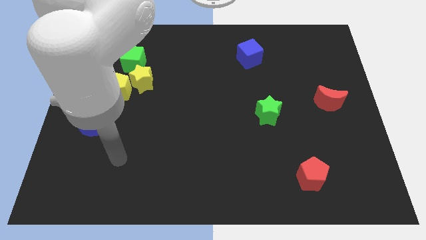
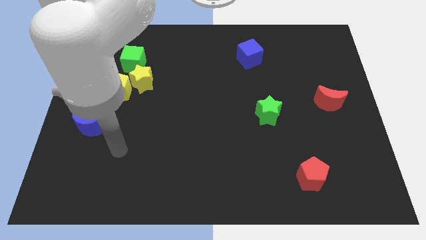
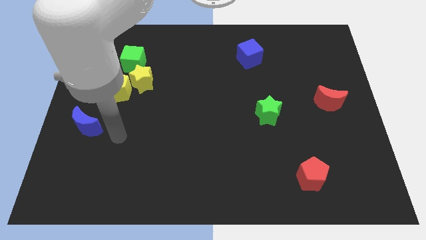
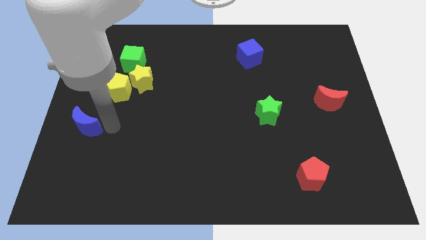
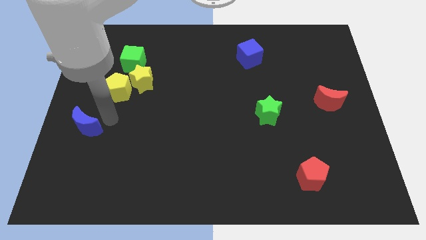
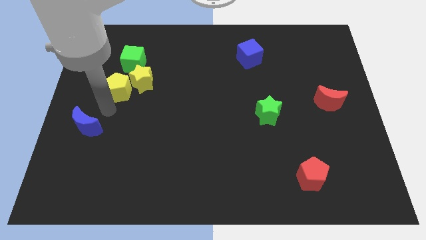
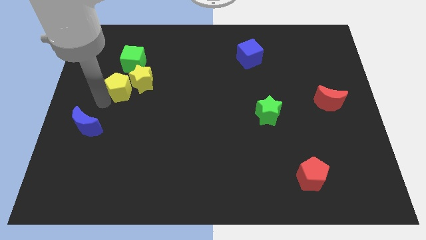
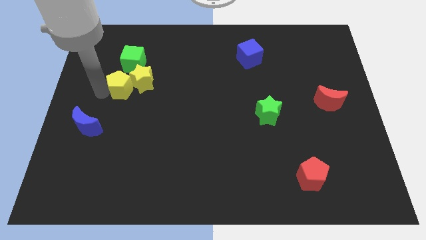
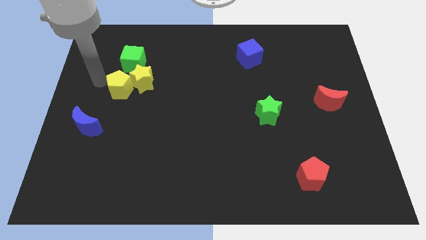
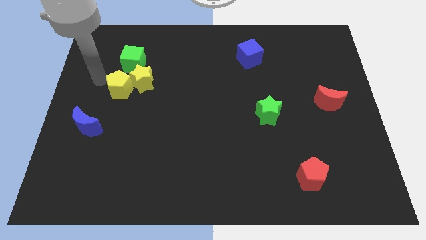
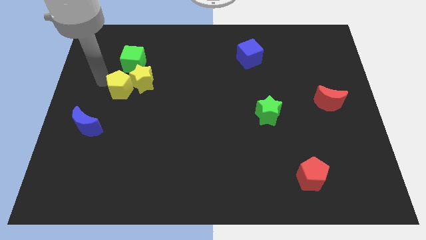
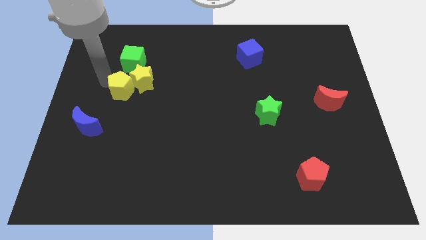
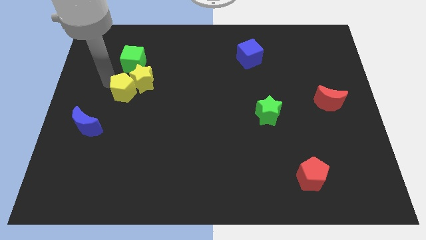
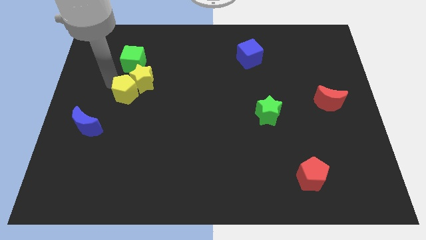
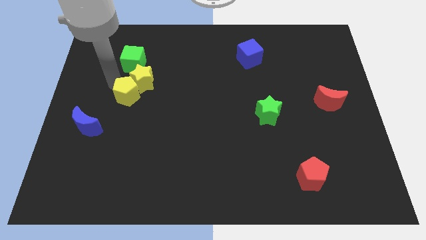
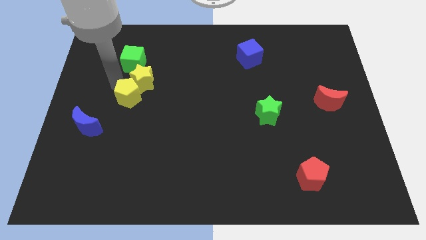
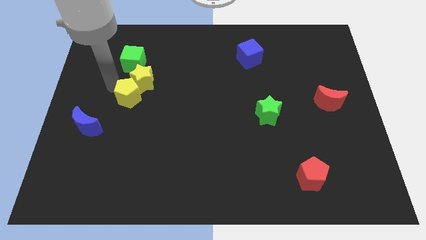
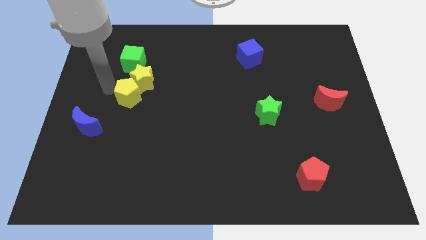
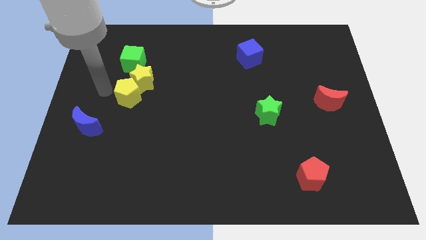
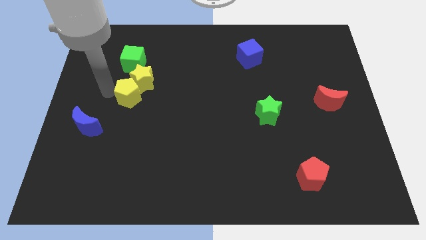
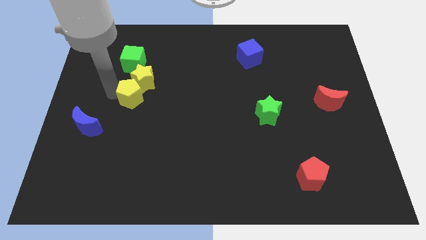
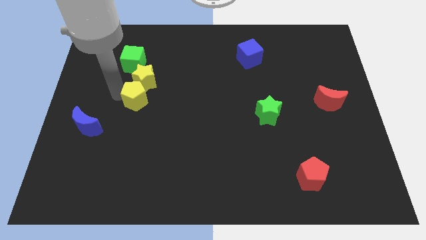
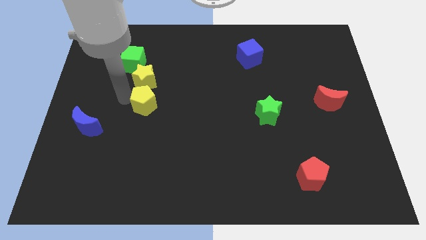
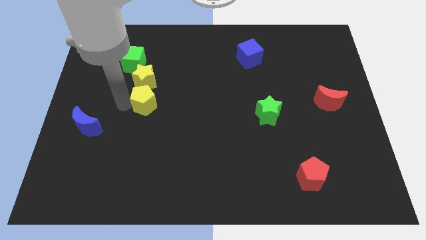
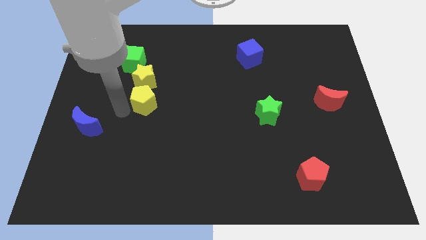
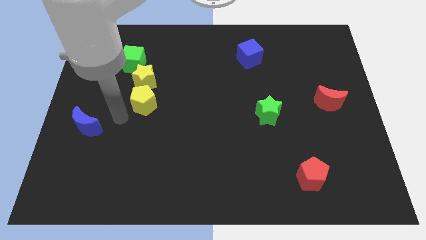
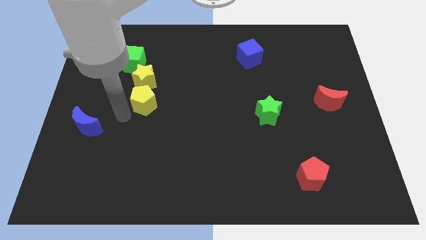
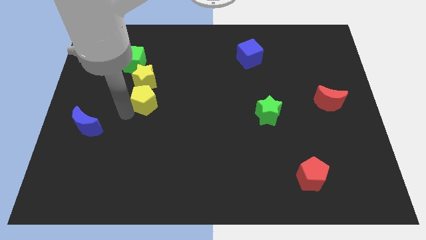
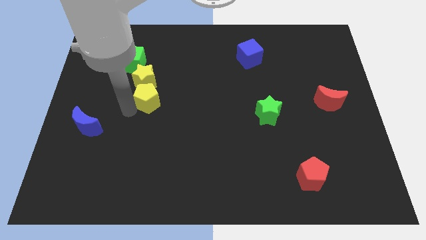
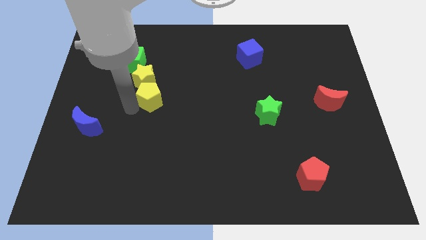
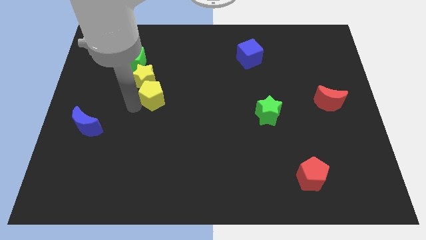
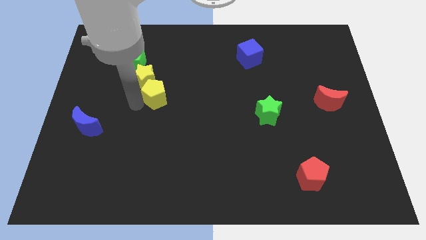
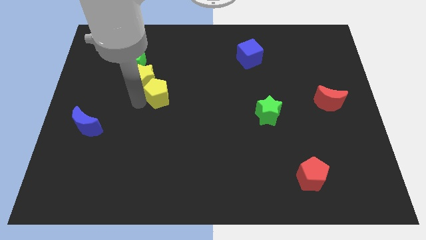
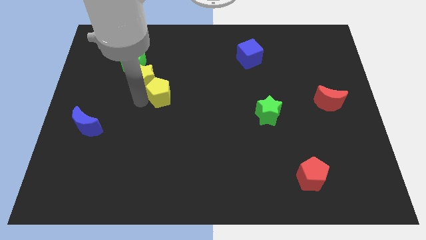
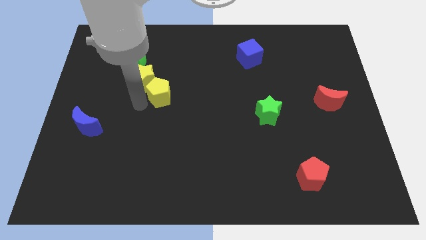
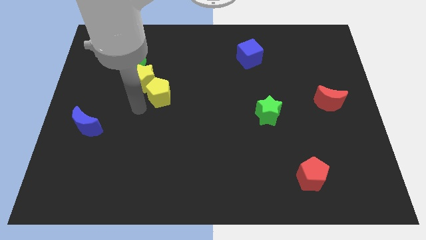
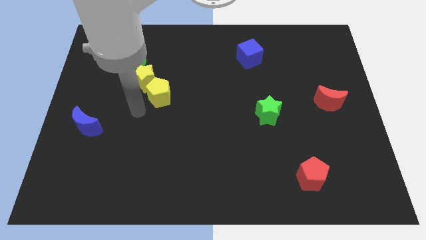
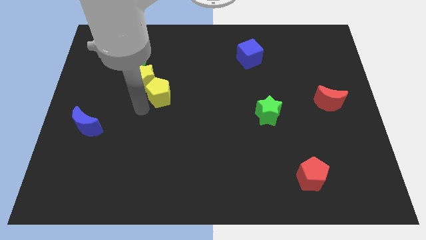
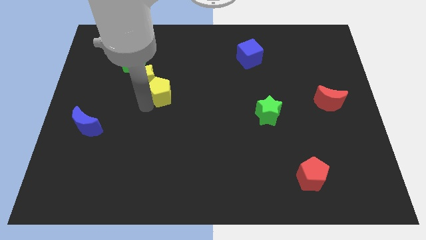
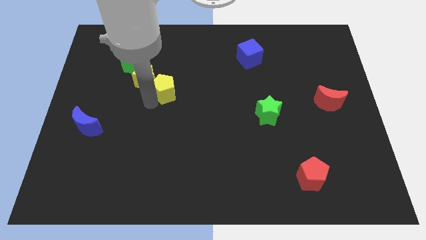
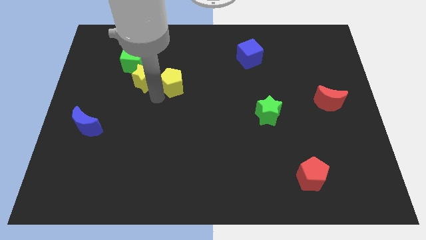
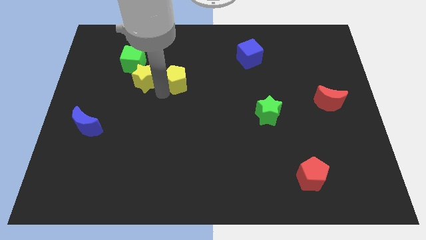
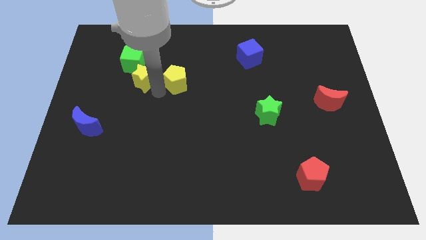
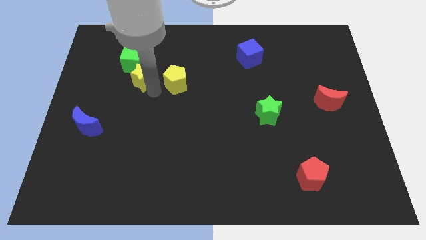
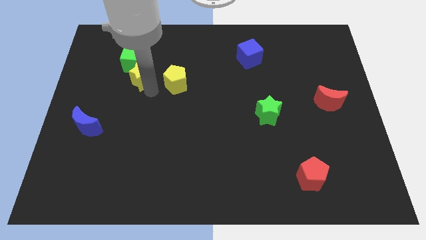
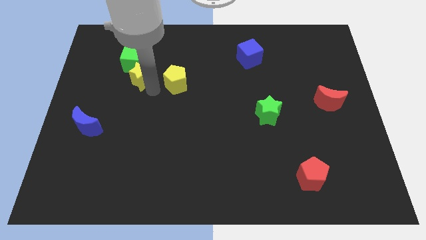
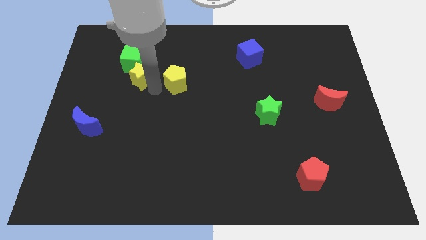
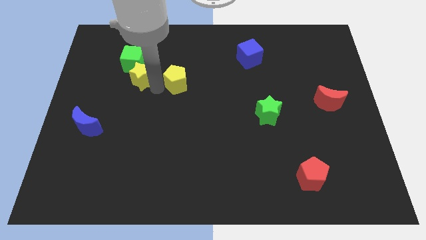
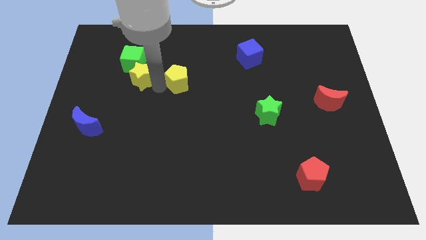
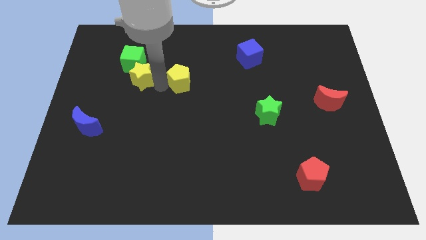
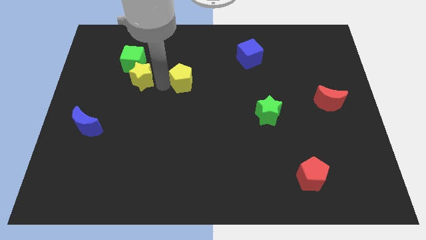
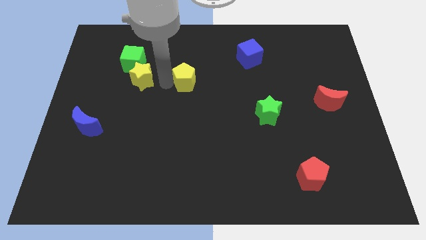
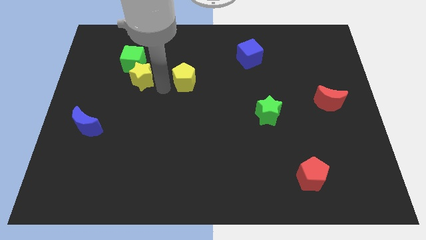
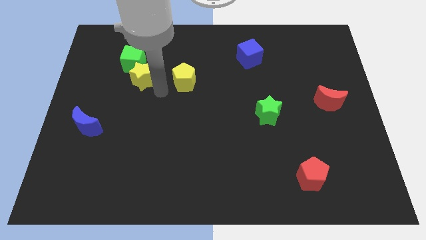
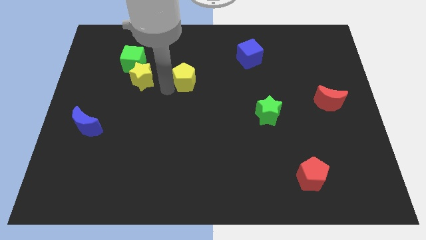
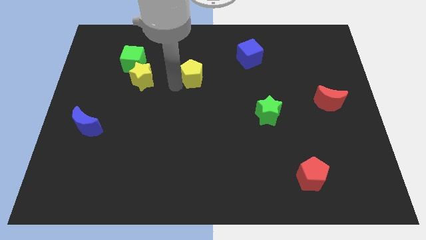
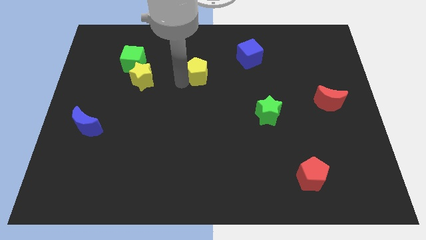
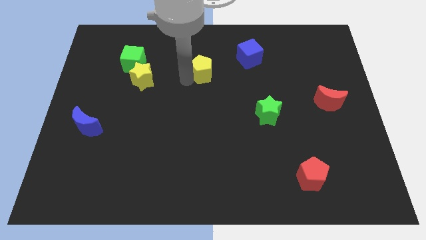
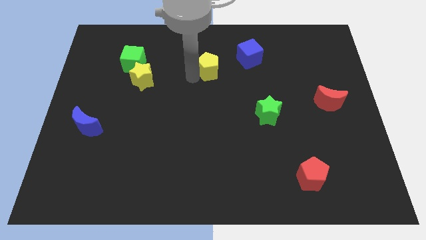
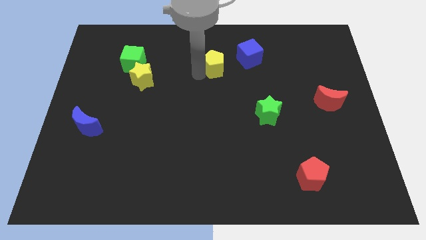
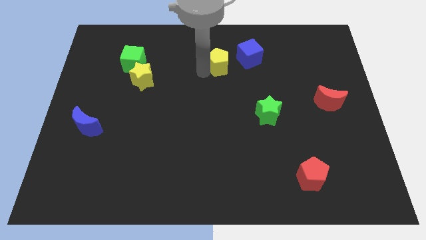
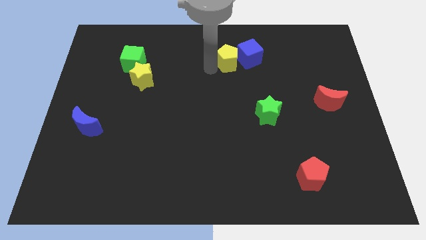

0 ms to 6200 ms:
put the yellow pentagon to the blue cube

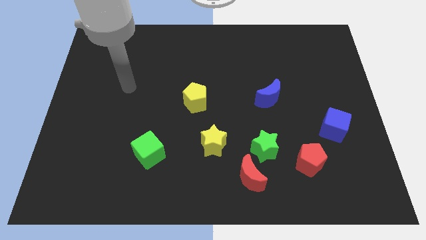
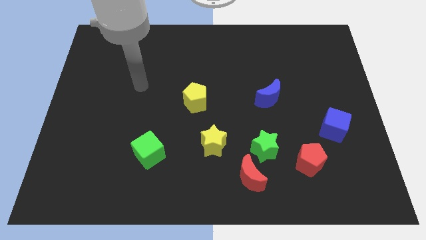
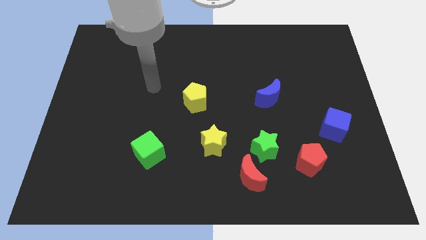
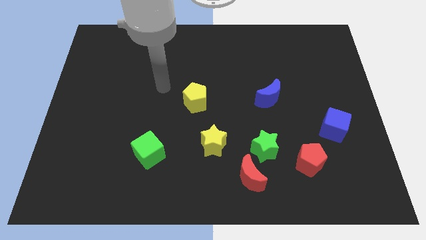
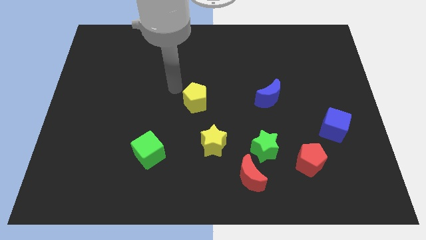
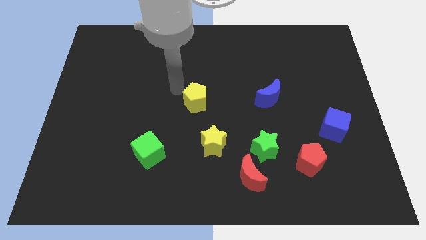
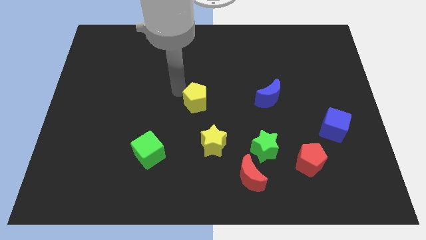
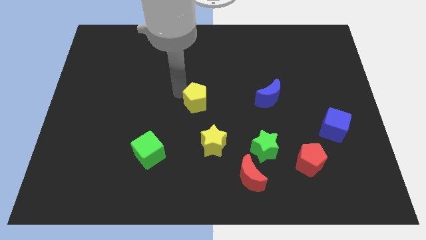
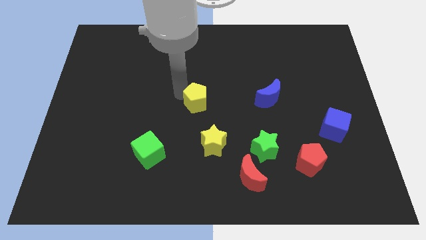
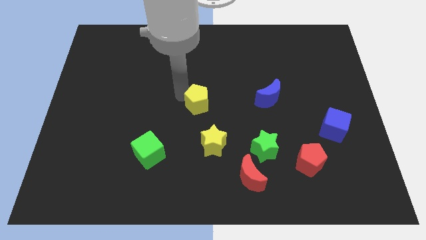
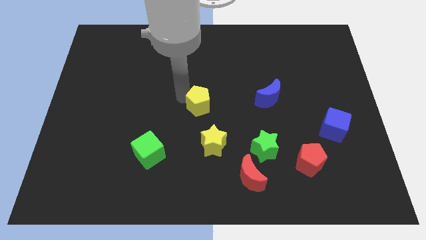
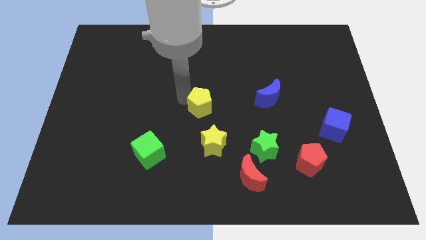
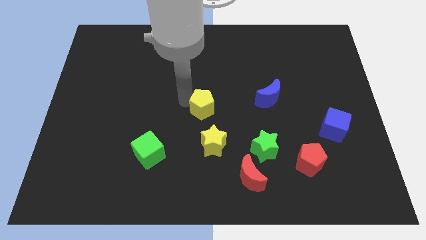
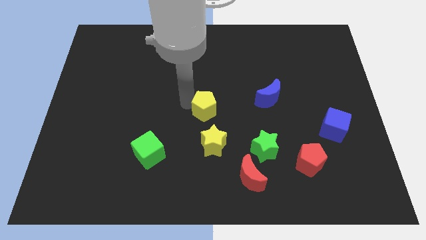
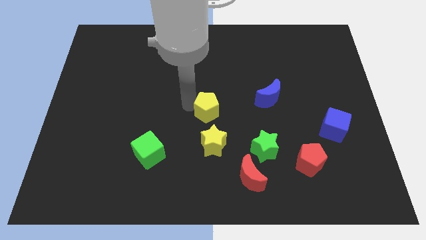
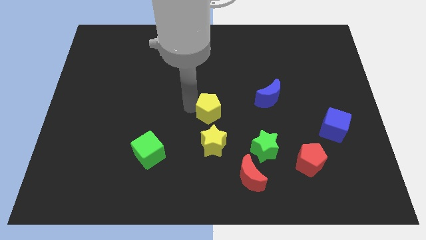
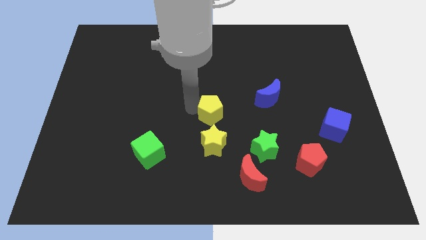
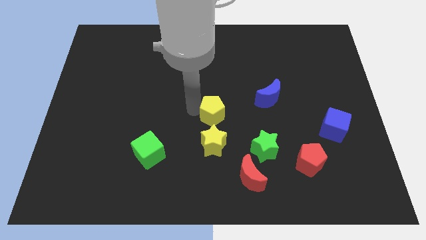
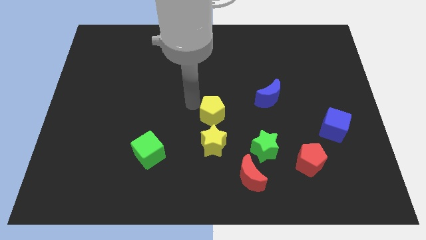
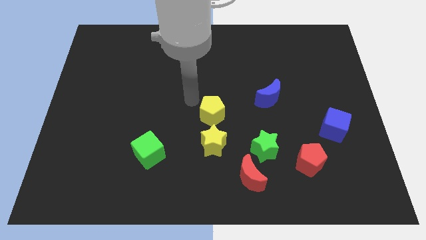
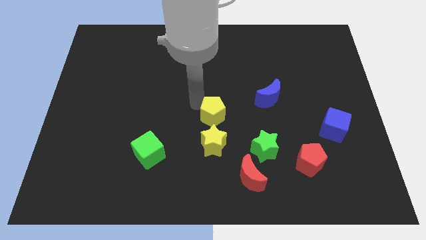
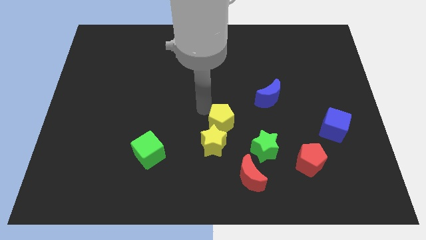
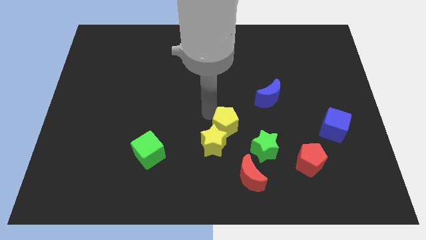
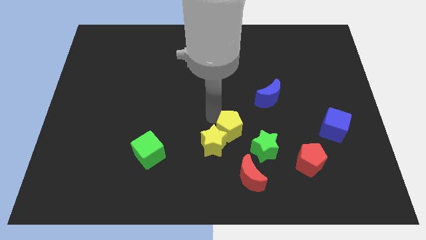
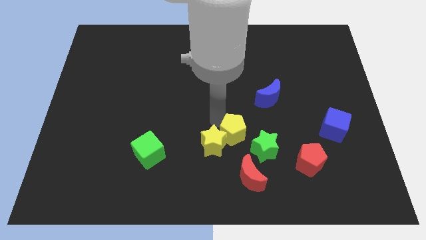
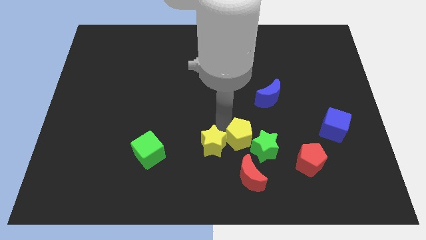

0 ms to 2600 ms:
push the yellow pentagon close to the green star
